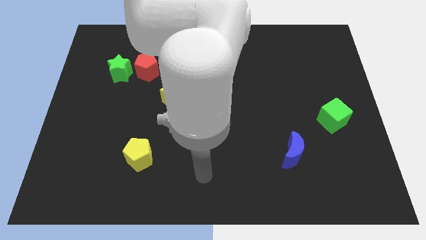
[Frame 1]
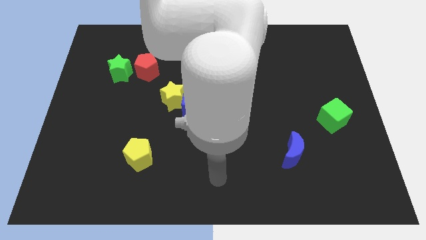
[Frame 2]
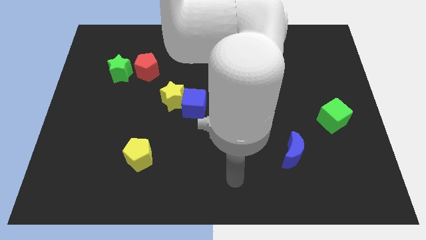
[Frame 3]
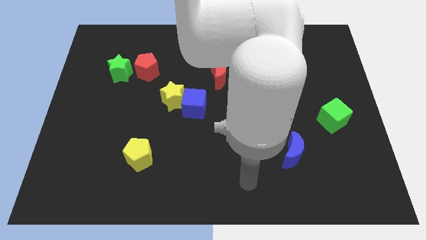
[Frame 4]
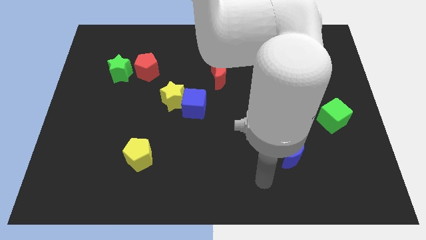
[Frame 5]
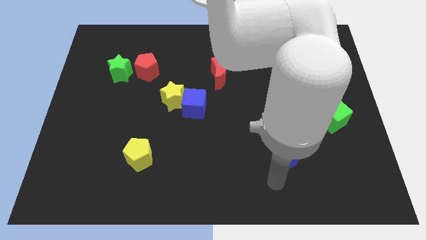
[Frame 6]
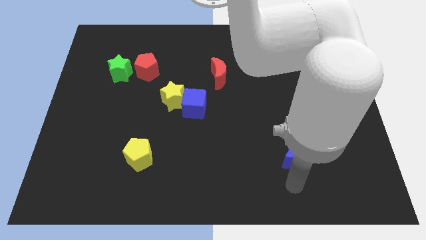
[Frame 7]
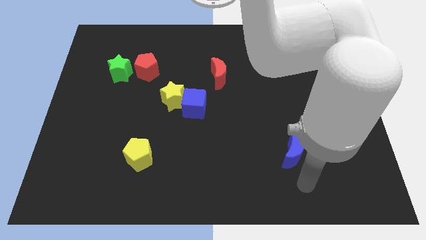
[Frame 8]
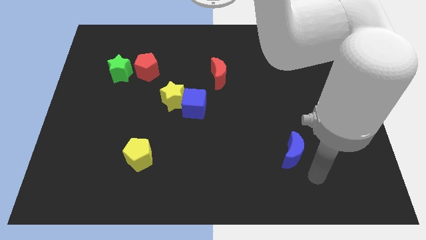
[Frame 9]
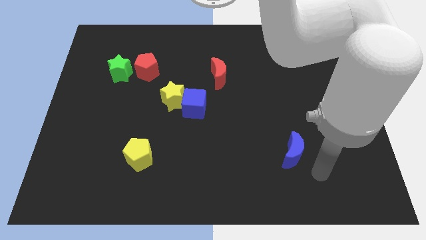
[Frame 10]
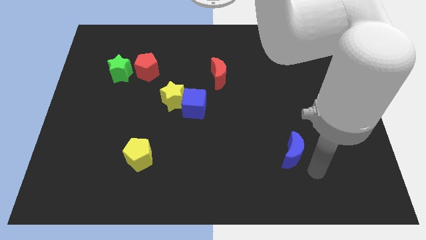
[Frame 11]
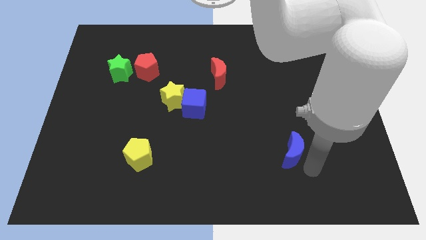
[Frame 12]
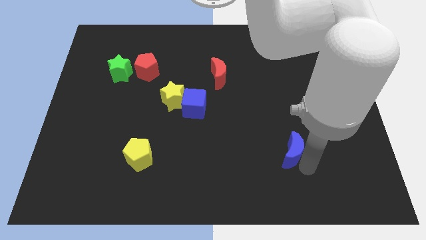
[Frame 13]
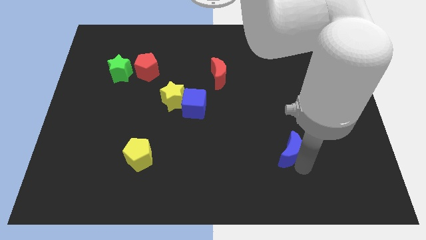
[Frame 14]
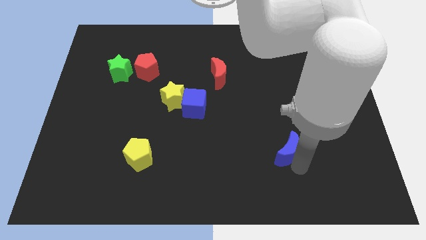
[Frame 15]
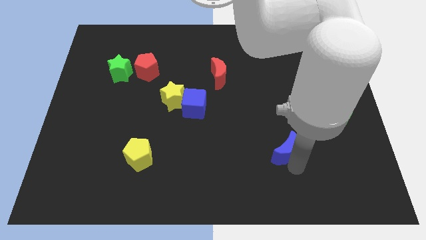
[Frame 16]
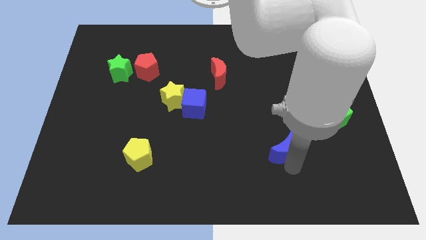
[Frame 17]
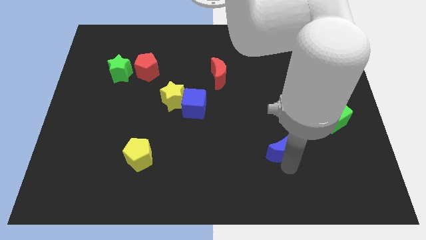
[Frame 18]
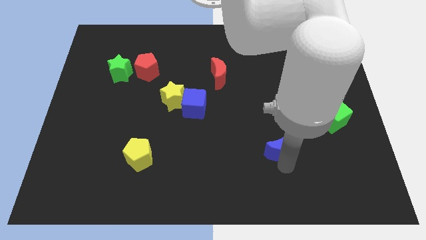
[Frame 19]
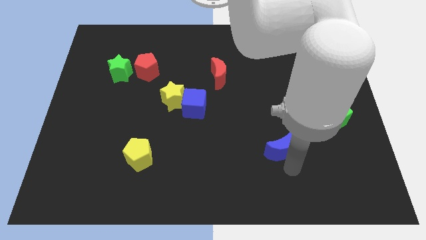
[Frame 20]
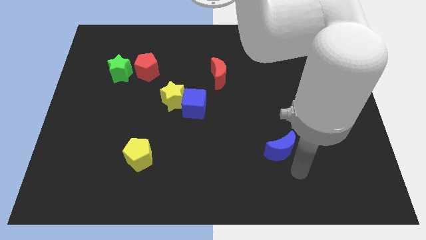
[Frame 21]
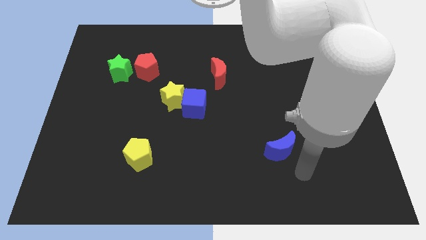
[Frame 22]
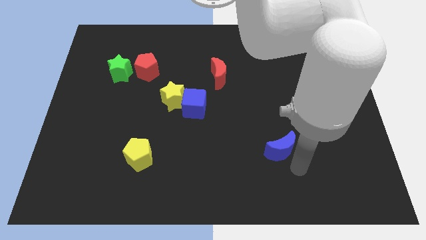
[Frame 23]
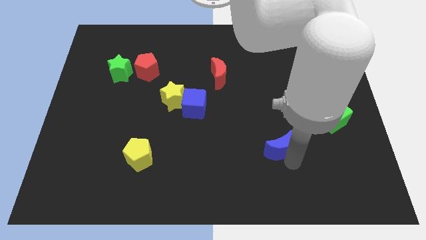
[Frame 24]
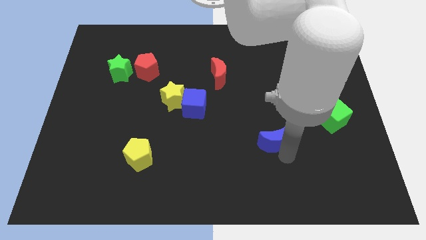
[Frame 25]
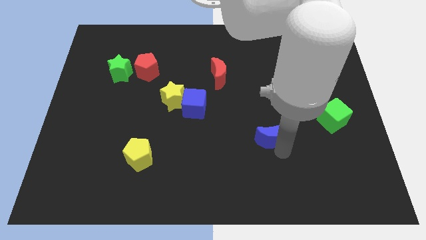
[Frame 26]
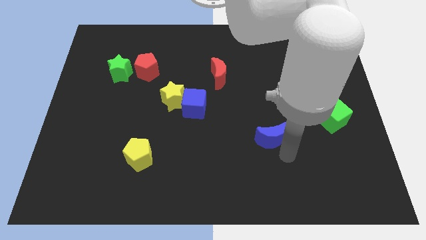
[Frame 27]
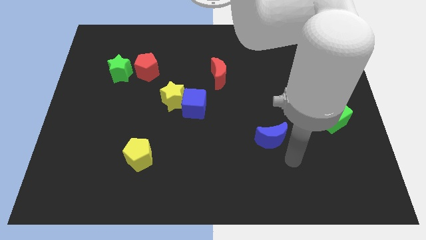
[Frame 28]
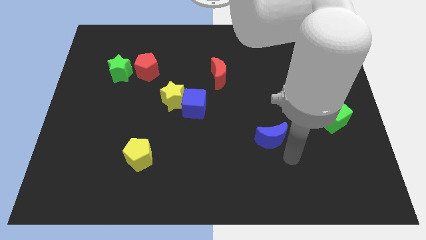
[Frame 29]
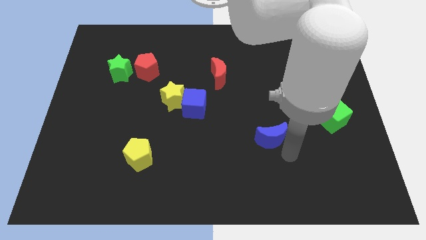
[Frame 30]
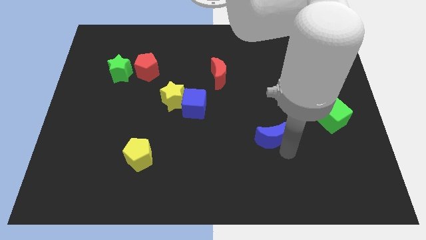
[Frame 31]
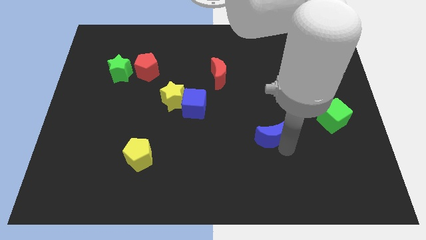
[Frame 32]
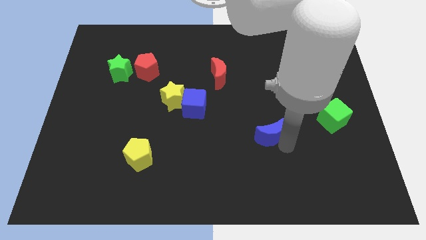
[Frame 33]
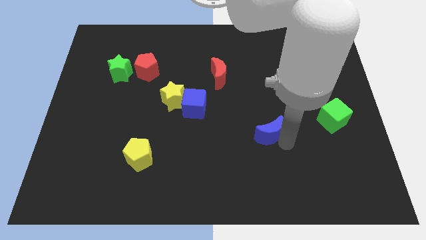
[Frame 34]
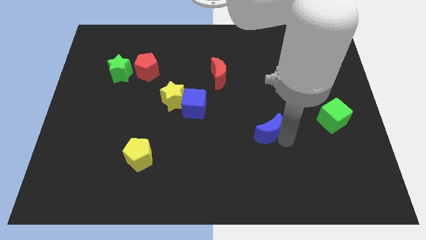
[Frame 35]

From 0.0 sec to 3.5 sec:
slightly move the blue moon diagonally up and to the left

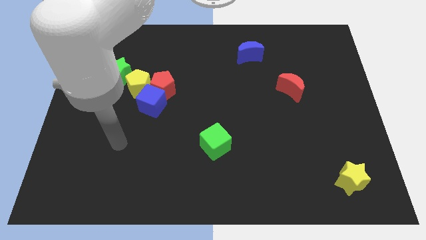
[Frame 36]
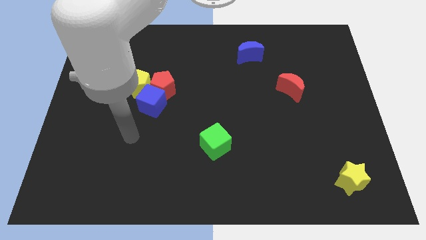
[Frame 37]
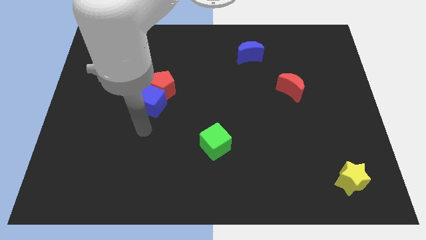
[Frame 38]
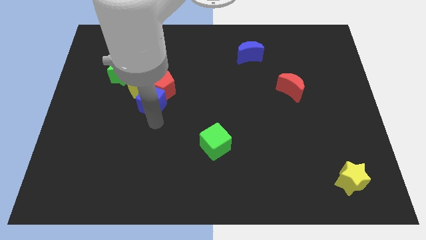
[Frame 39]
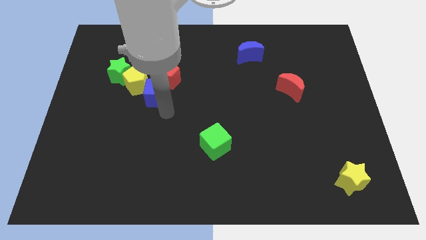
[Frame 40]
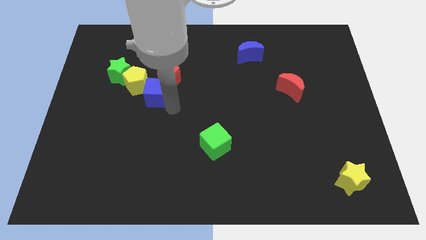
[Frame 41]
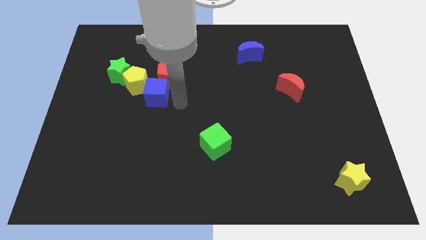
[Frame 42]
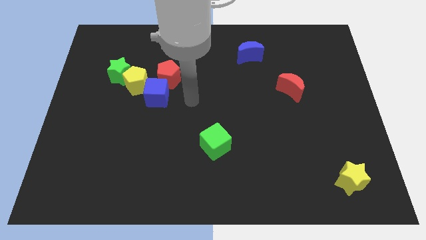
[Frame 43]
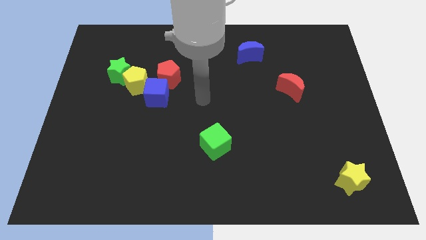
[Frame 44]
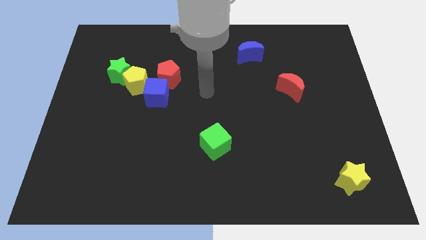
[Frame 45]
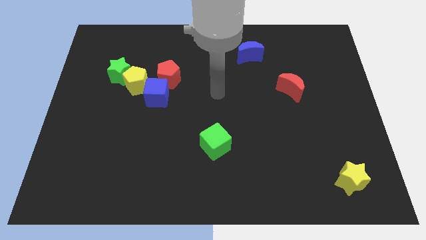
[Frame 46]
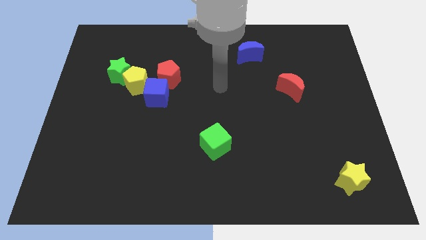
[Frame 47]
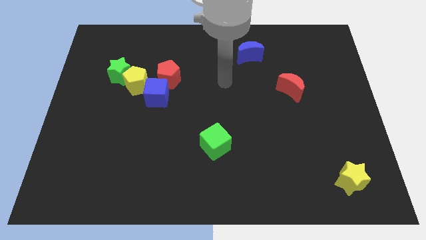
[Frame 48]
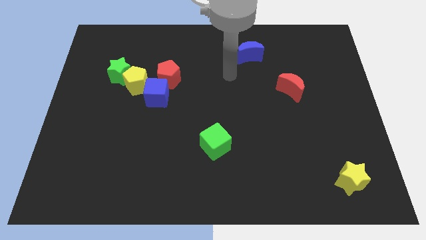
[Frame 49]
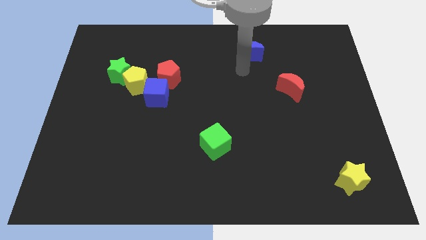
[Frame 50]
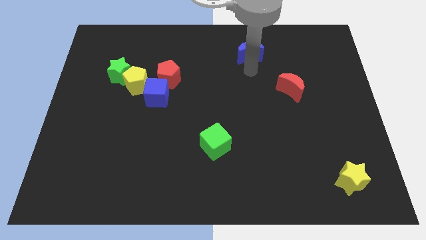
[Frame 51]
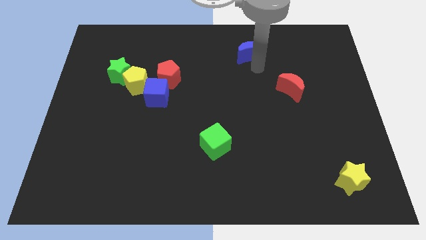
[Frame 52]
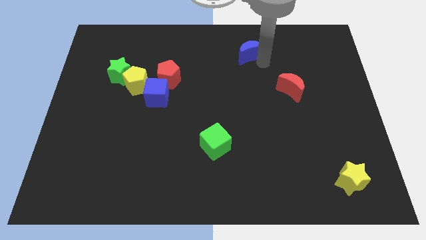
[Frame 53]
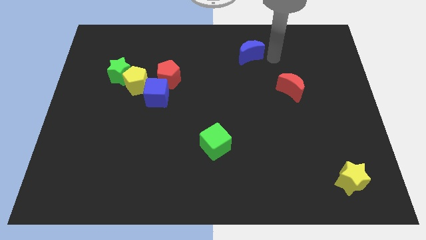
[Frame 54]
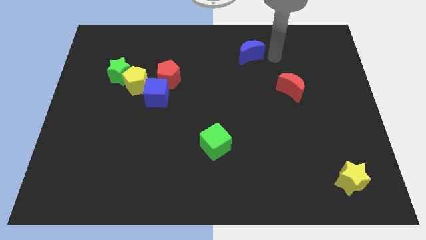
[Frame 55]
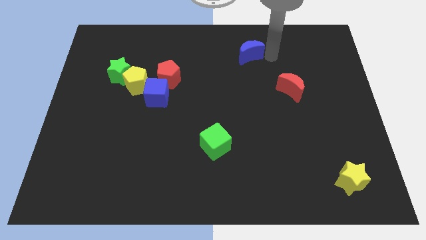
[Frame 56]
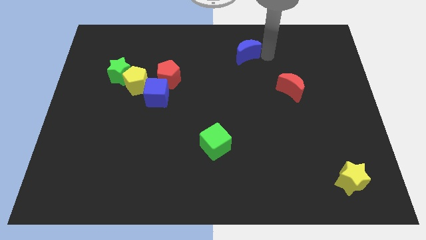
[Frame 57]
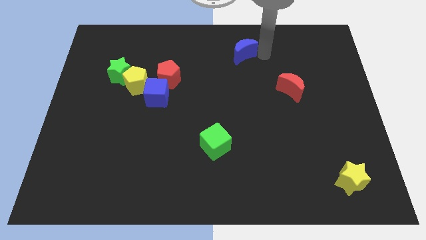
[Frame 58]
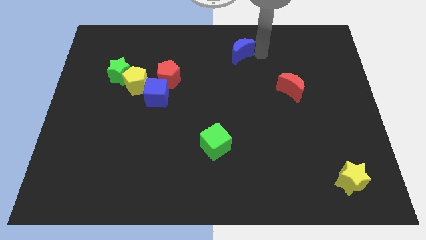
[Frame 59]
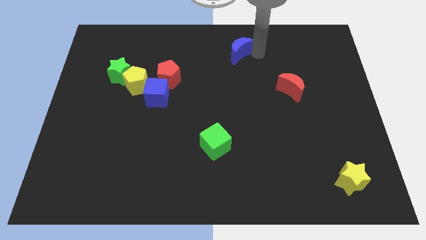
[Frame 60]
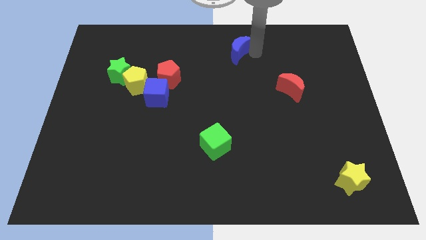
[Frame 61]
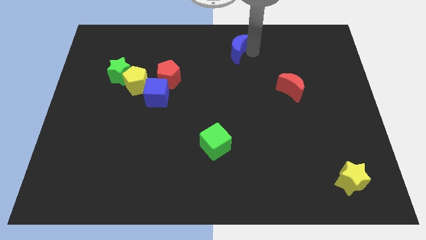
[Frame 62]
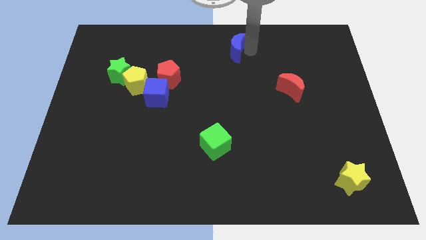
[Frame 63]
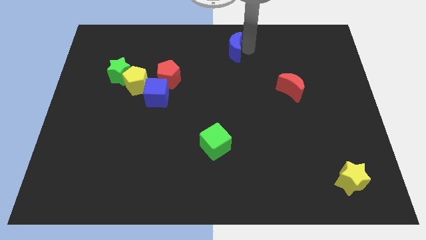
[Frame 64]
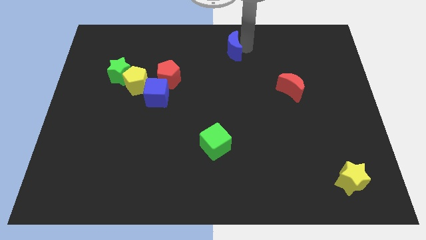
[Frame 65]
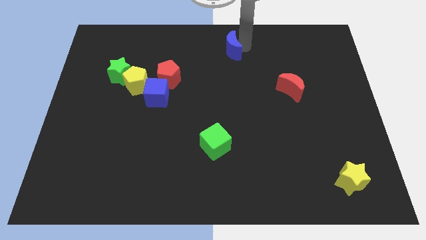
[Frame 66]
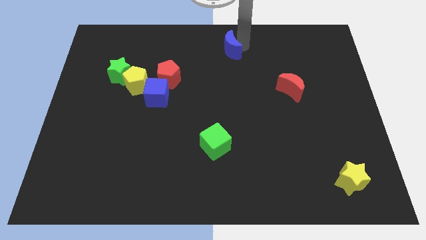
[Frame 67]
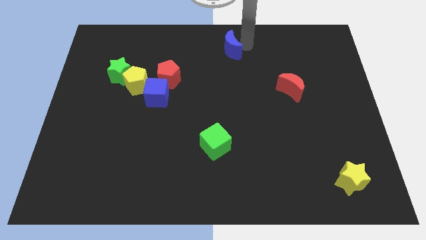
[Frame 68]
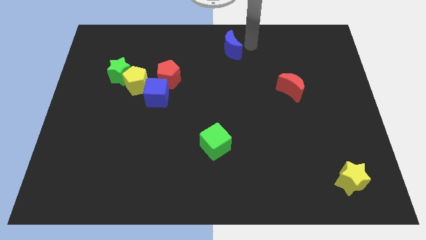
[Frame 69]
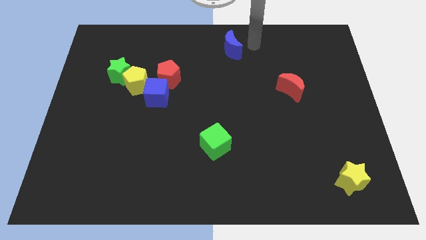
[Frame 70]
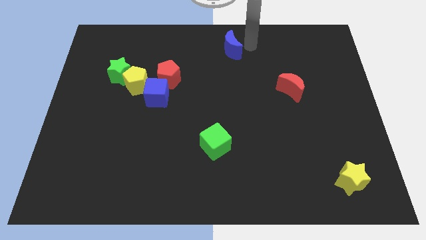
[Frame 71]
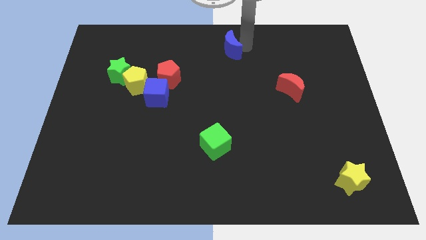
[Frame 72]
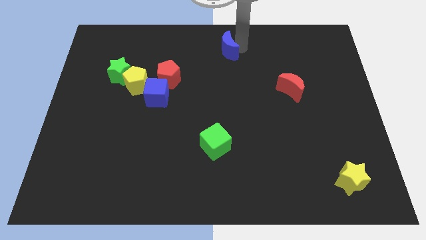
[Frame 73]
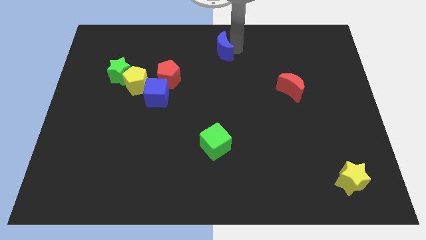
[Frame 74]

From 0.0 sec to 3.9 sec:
push the blue moon to the left a bit

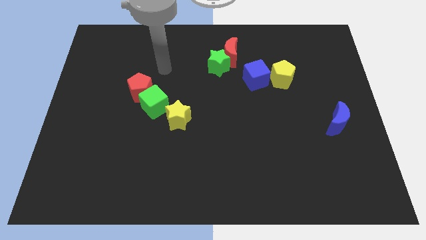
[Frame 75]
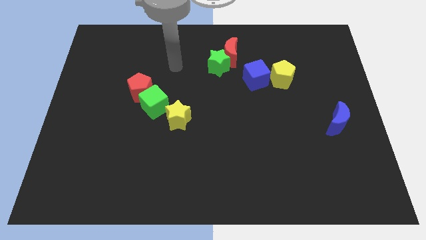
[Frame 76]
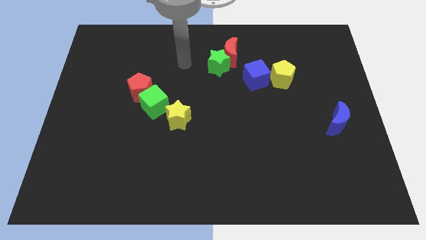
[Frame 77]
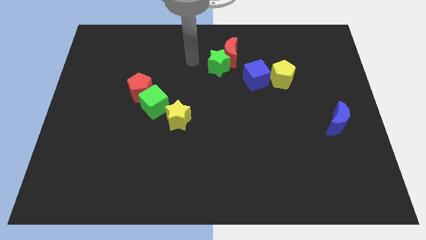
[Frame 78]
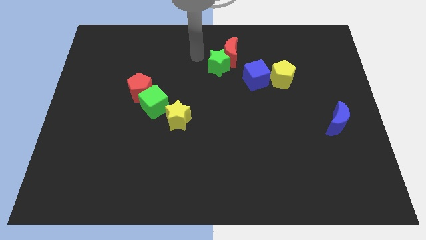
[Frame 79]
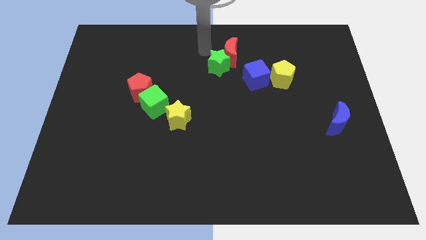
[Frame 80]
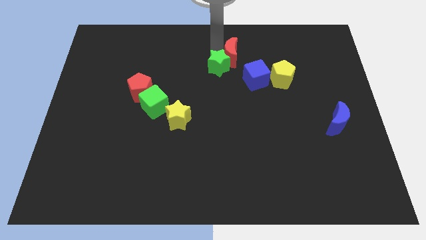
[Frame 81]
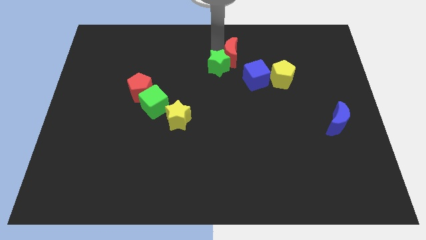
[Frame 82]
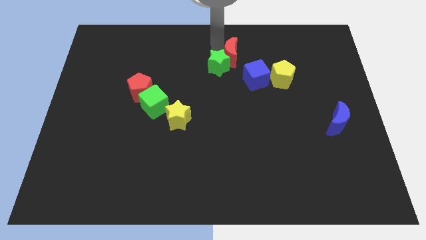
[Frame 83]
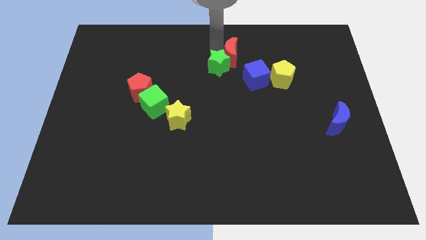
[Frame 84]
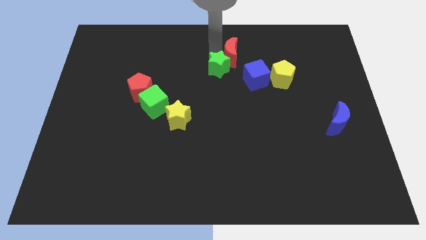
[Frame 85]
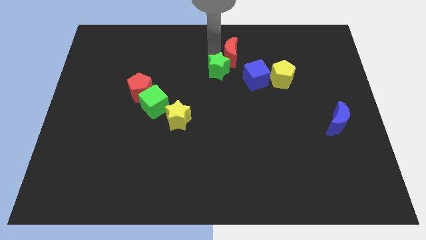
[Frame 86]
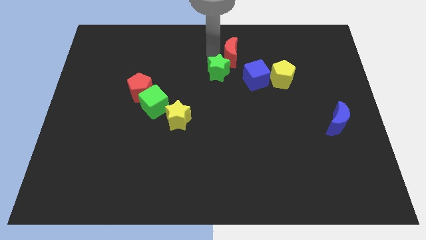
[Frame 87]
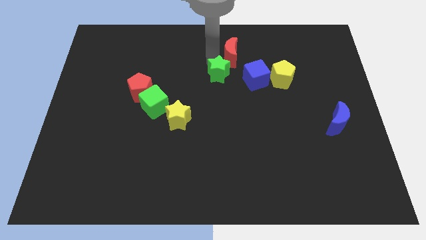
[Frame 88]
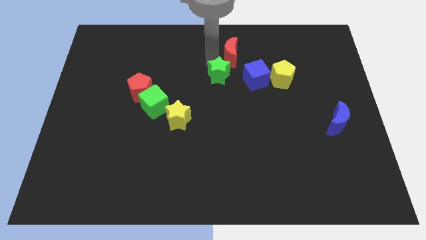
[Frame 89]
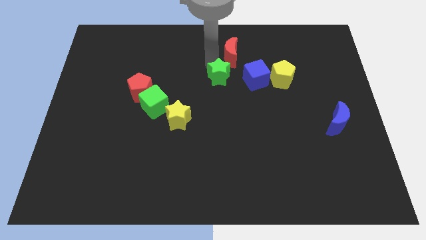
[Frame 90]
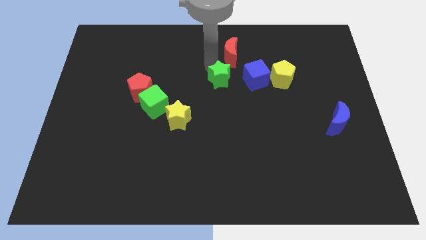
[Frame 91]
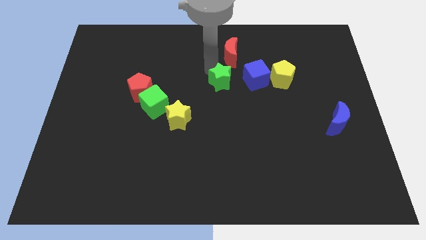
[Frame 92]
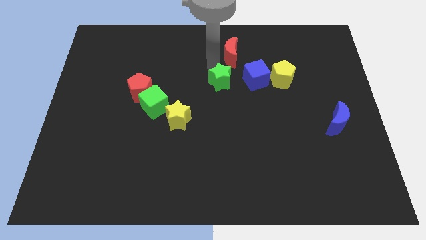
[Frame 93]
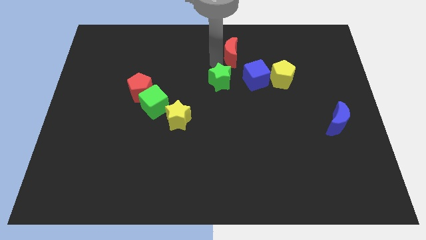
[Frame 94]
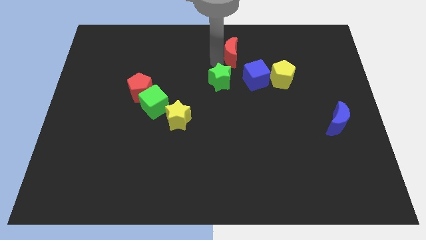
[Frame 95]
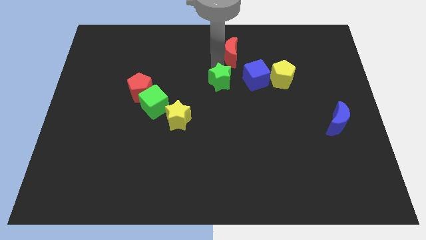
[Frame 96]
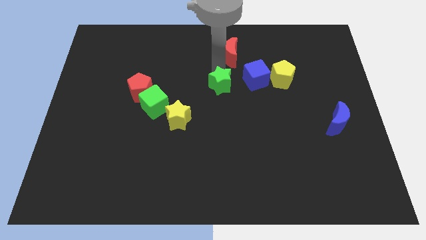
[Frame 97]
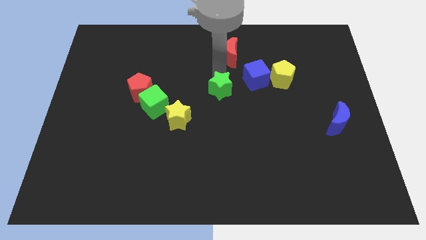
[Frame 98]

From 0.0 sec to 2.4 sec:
slightly push the green star down
